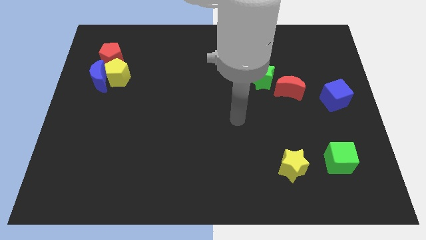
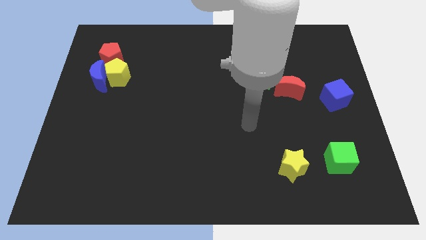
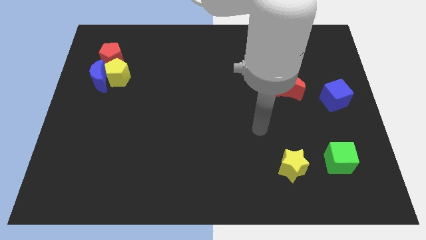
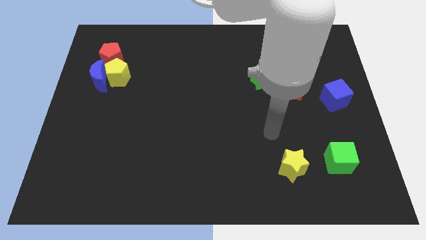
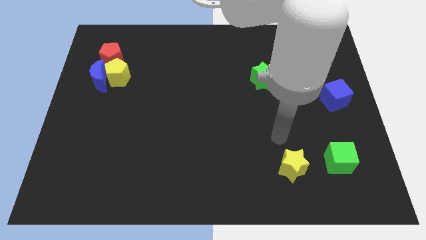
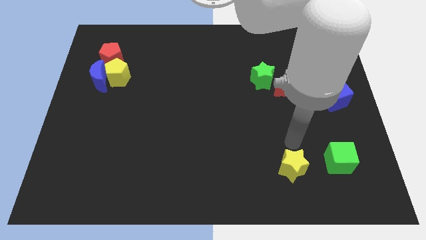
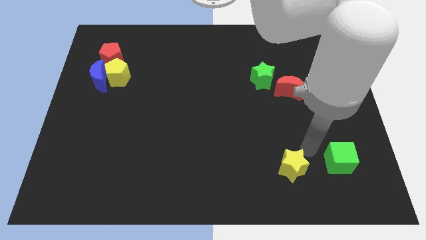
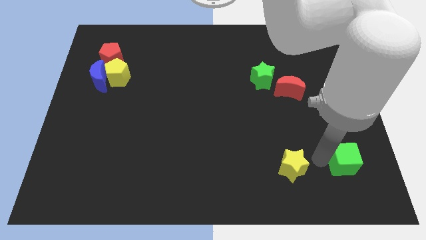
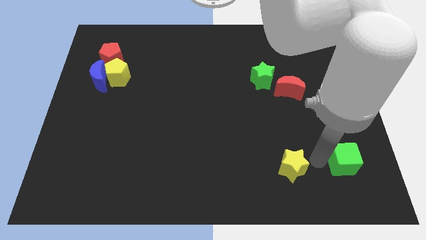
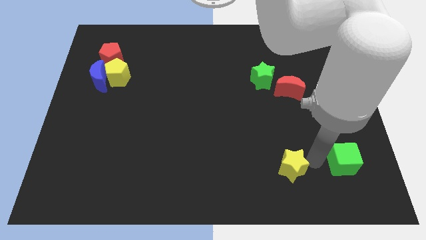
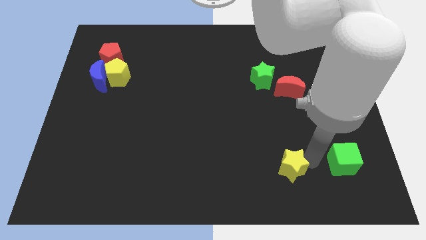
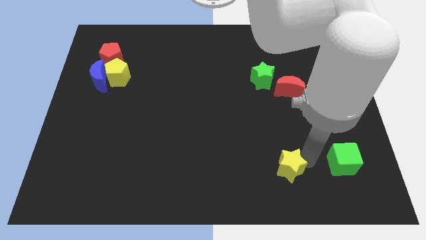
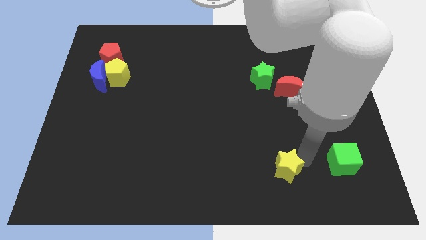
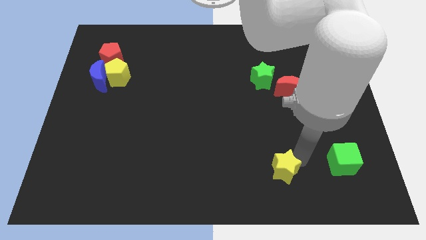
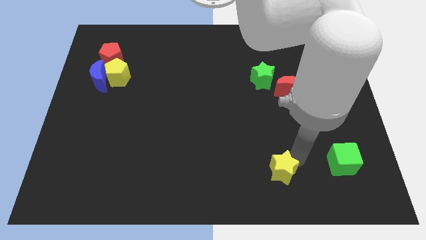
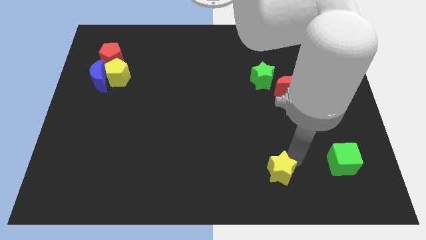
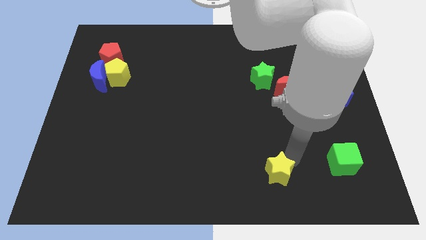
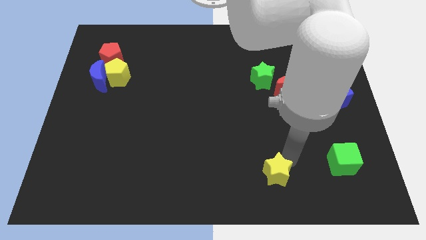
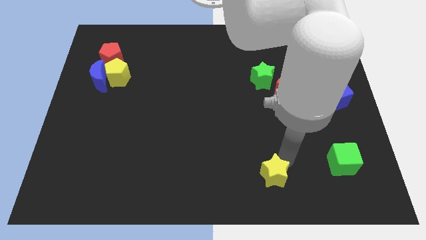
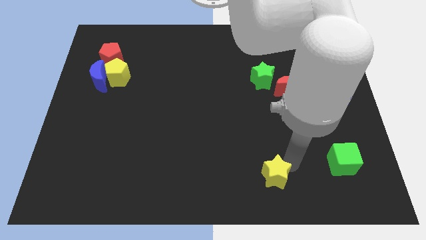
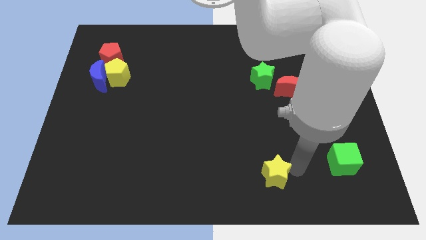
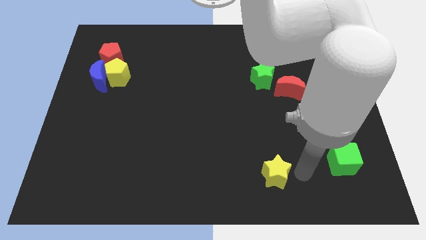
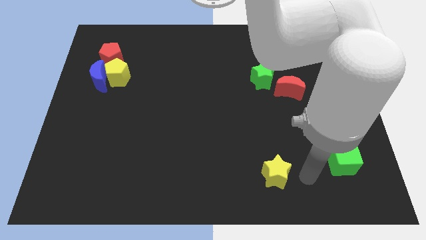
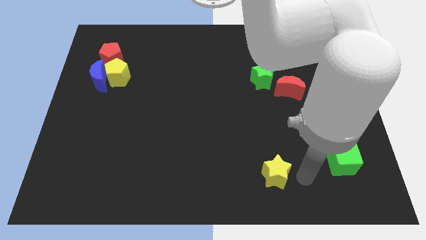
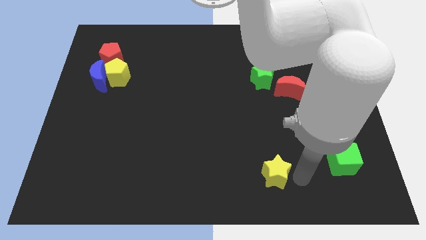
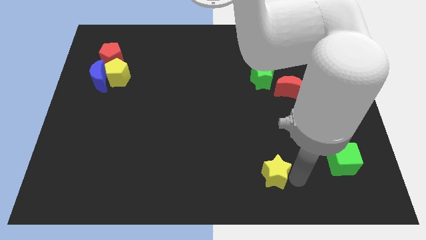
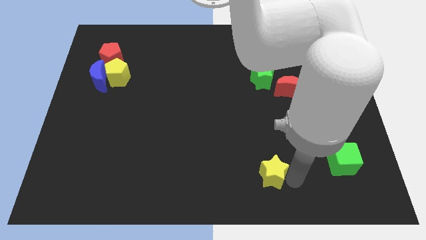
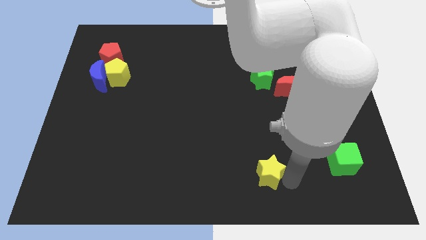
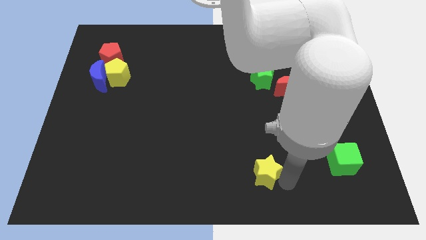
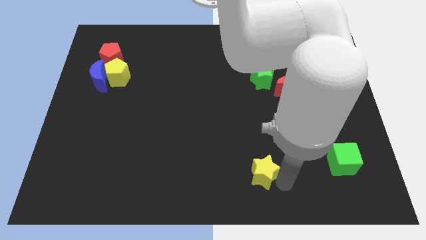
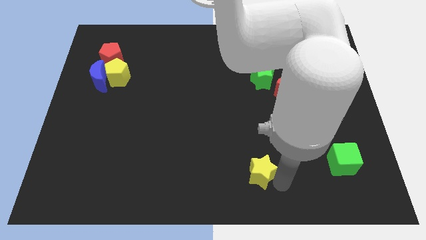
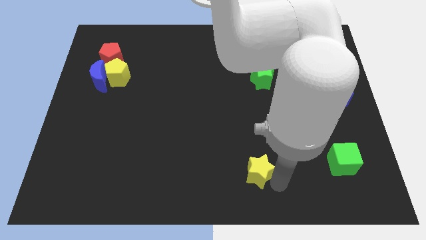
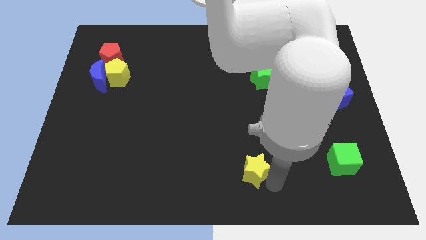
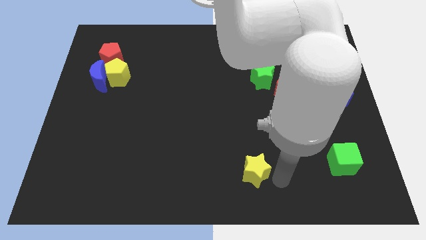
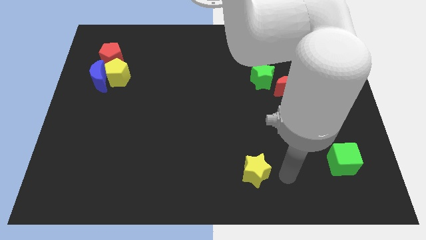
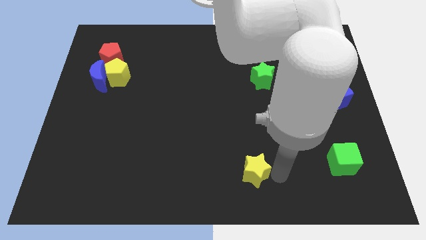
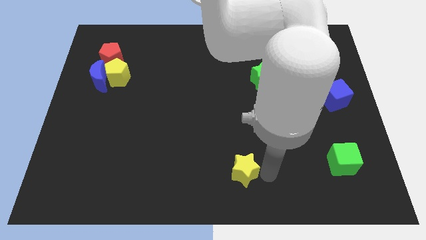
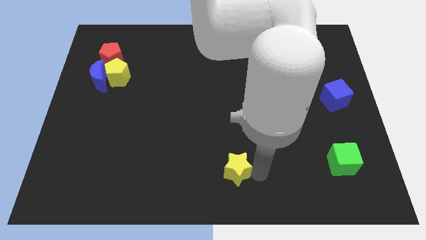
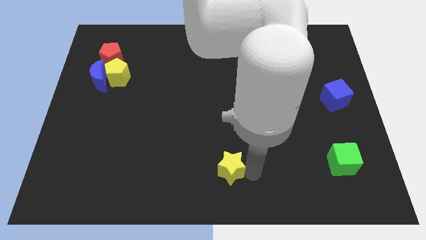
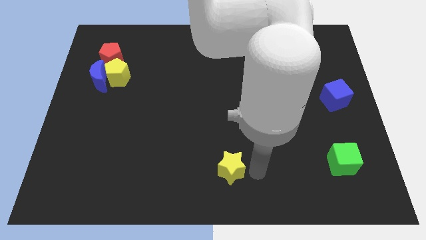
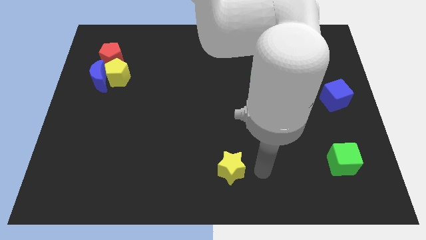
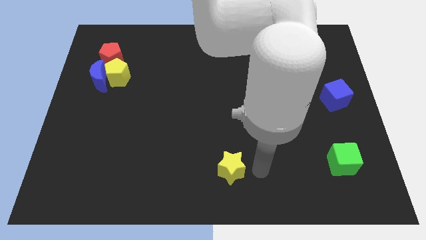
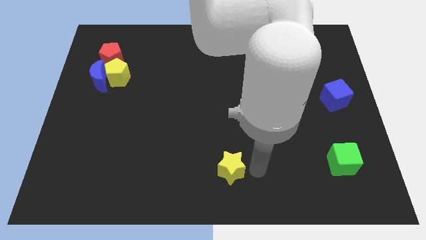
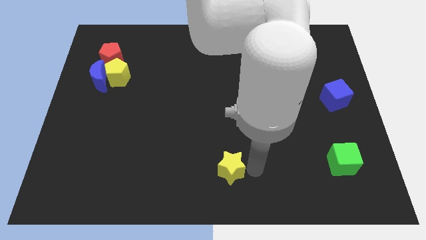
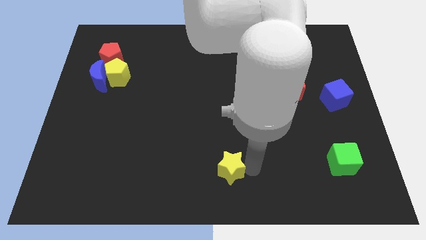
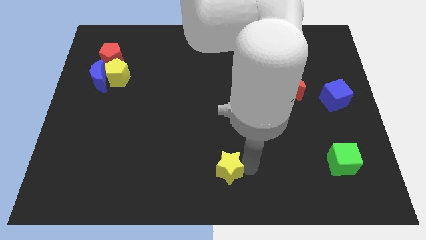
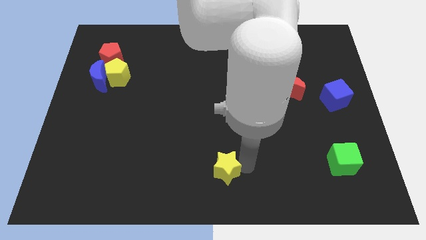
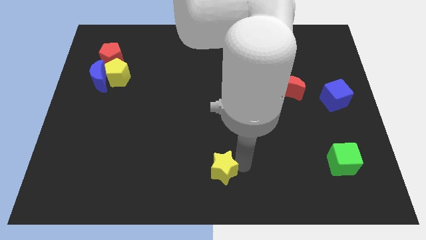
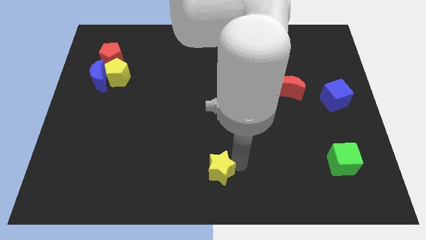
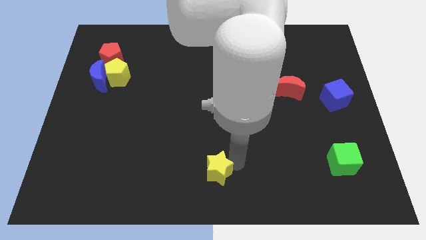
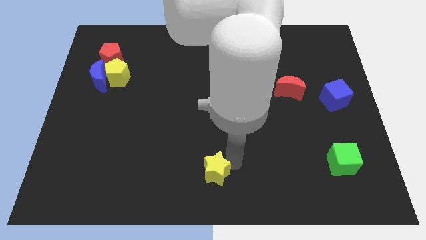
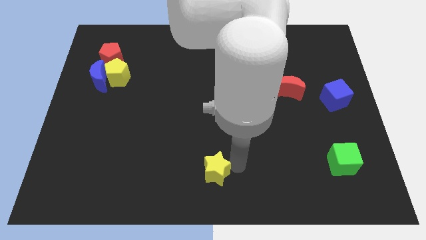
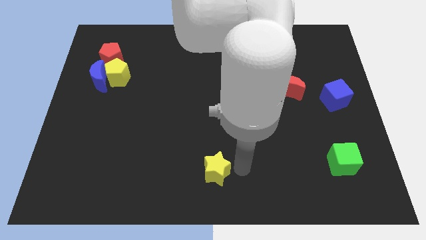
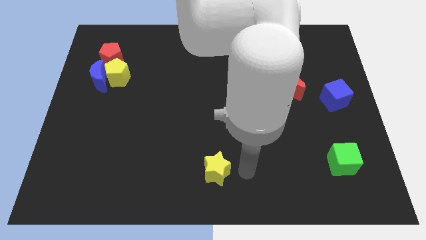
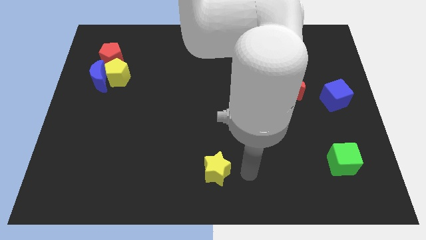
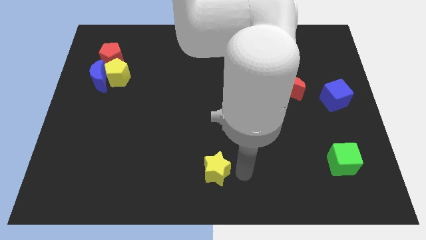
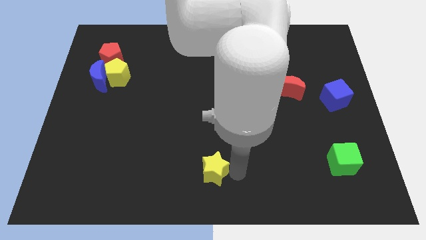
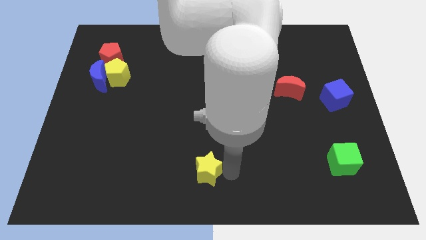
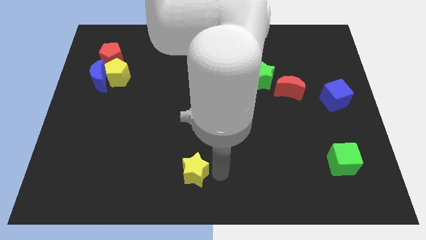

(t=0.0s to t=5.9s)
push the yellow star to the left

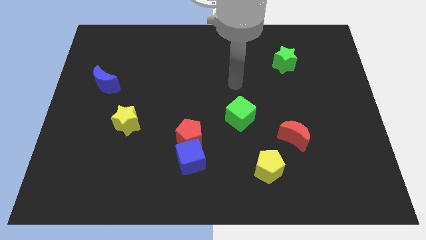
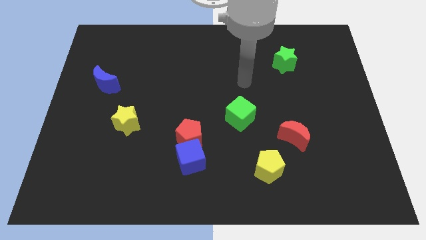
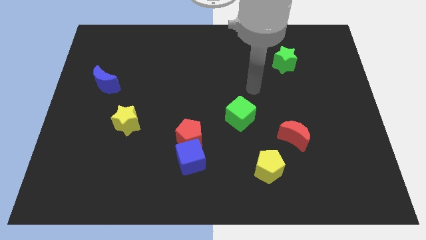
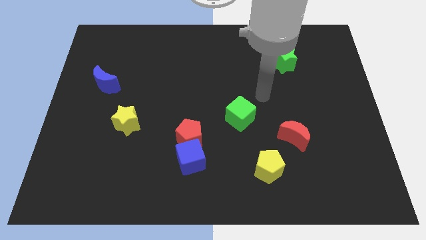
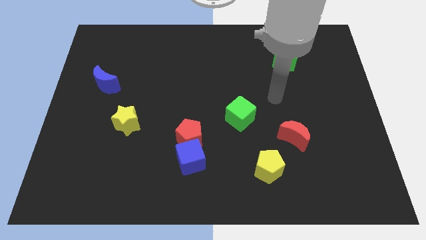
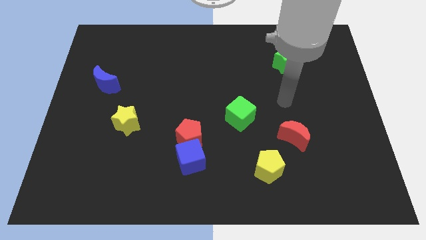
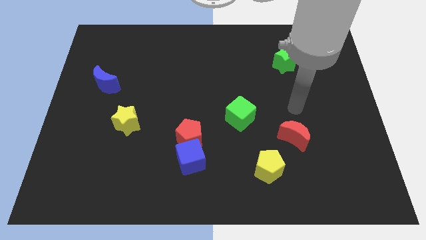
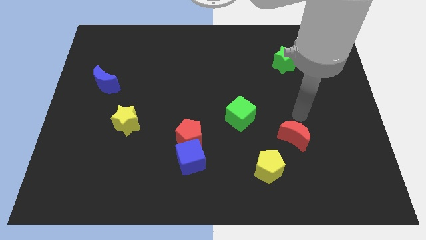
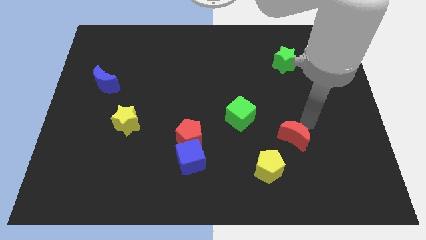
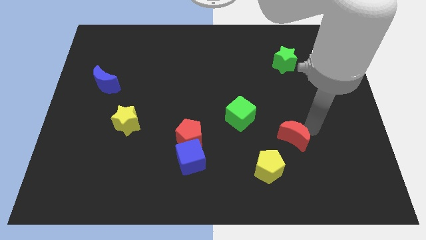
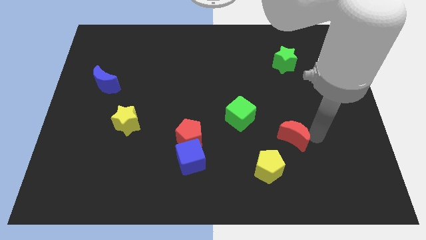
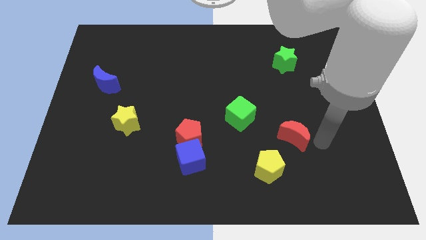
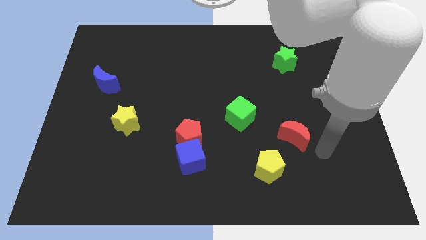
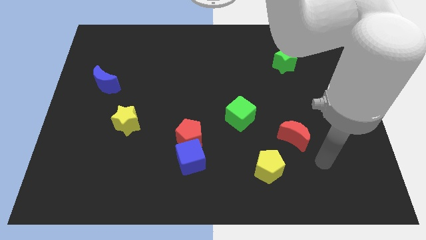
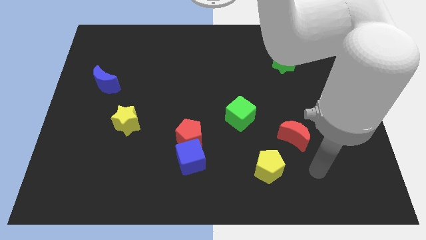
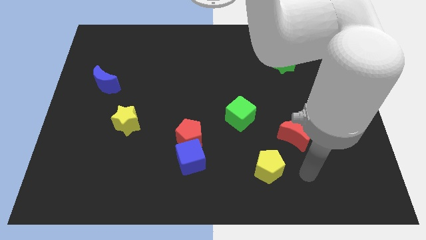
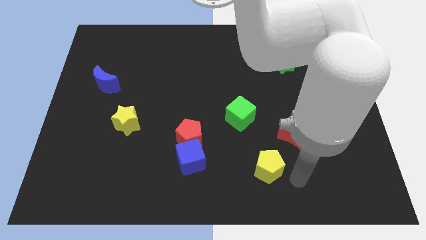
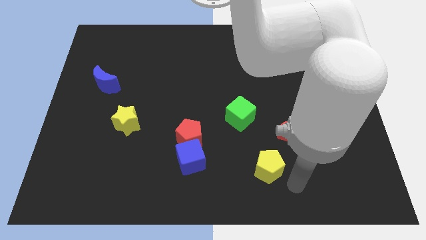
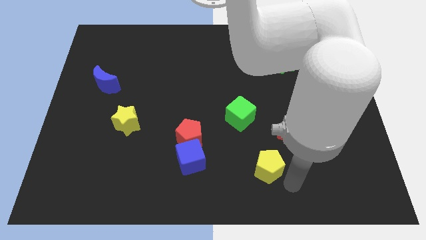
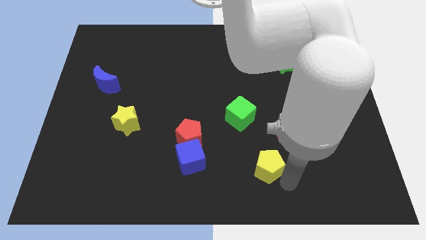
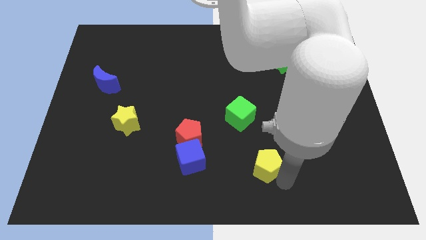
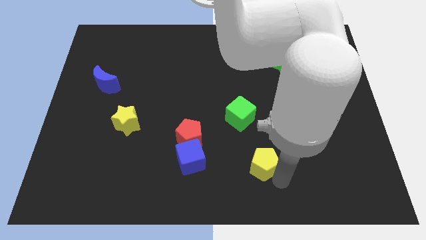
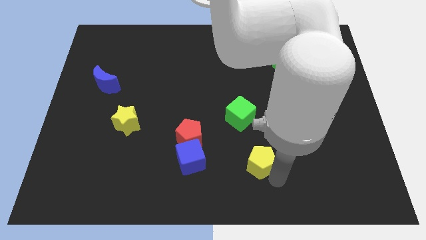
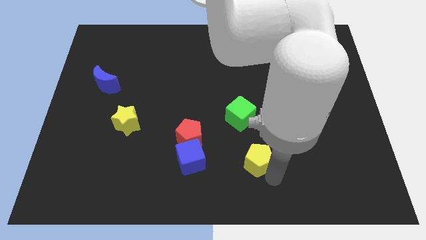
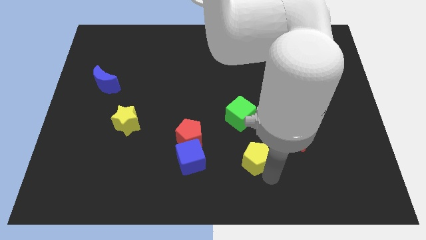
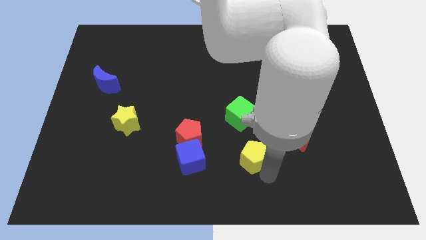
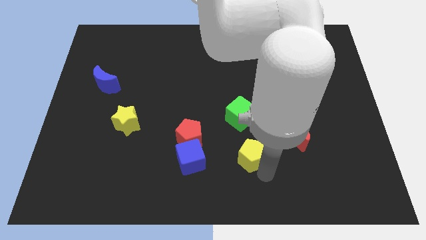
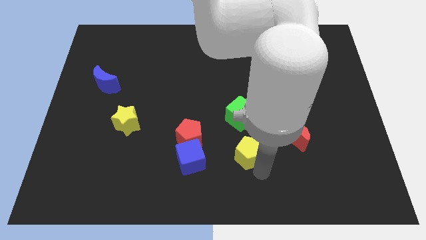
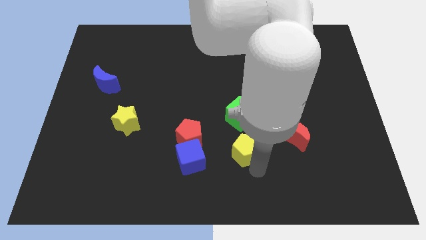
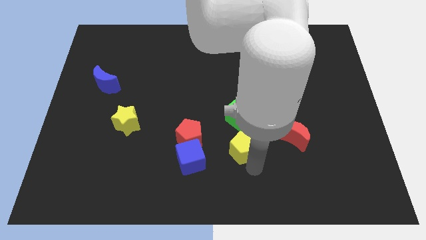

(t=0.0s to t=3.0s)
push the yellow pentagon a bit upwards and then left
